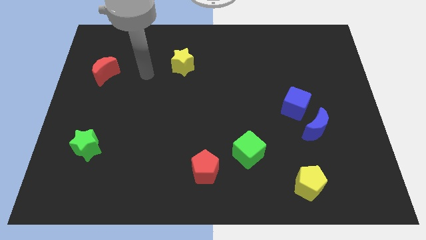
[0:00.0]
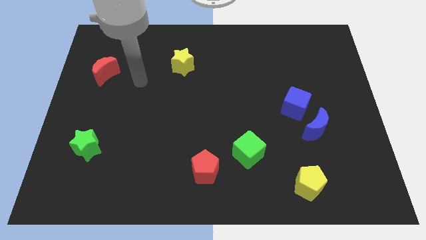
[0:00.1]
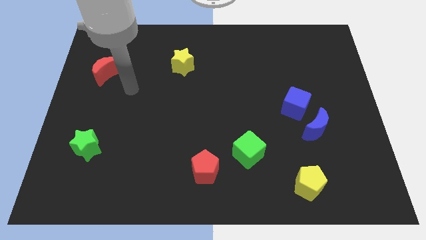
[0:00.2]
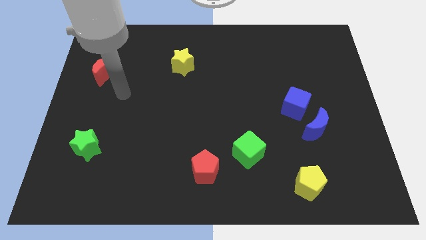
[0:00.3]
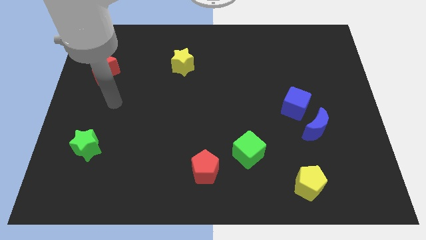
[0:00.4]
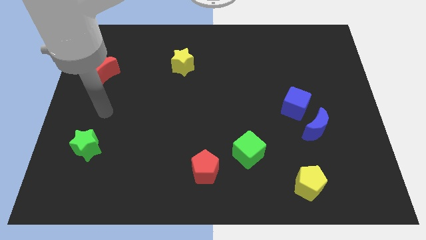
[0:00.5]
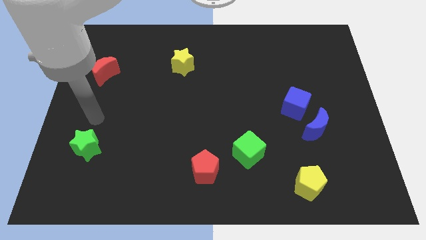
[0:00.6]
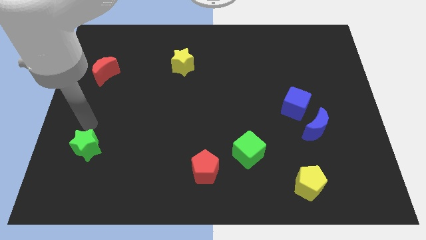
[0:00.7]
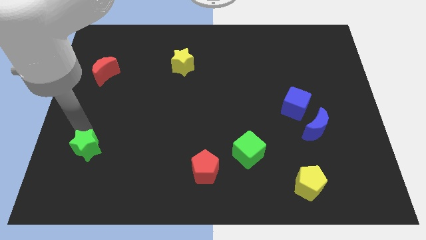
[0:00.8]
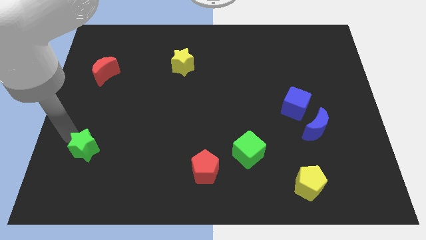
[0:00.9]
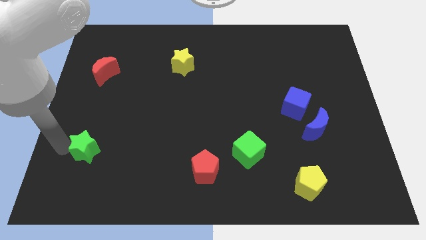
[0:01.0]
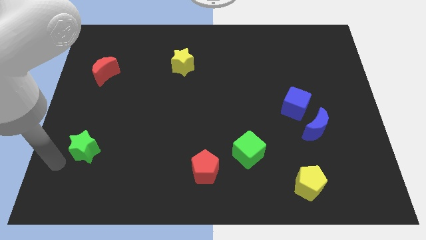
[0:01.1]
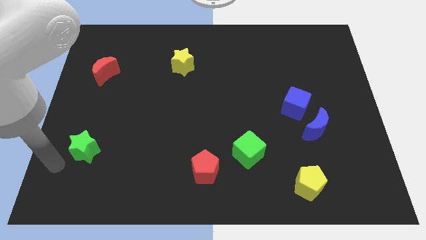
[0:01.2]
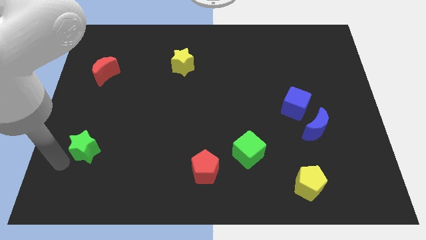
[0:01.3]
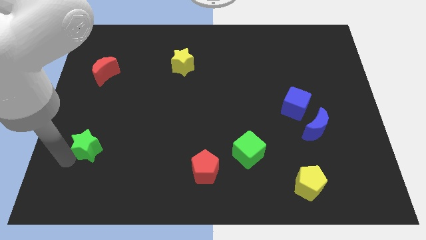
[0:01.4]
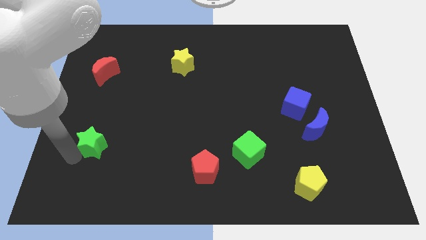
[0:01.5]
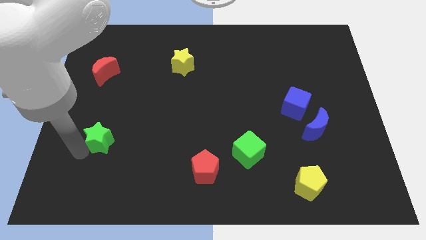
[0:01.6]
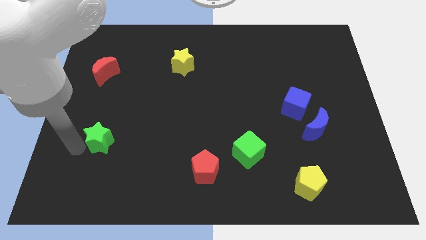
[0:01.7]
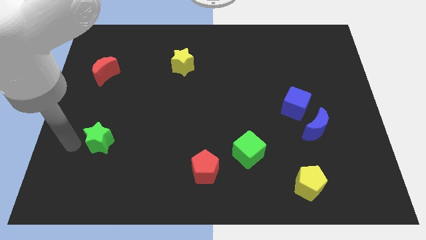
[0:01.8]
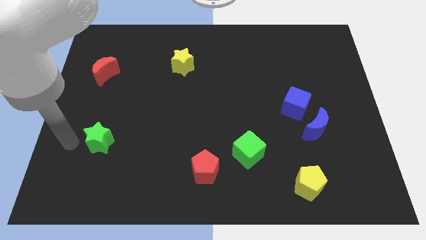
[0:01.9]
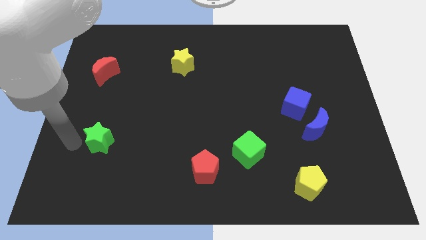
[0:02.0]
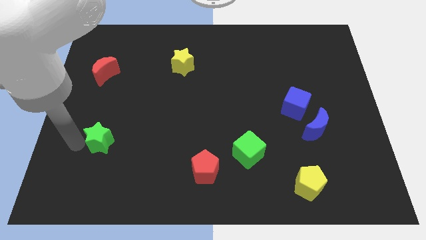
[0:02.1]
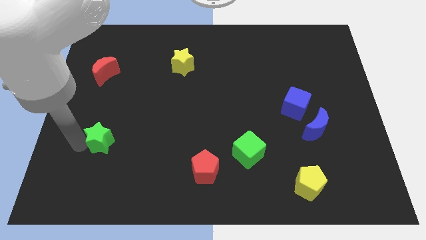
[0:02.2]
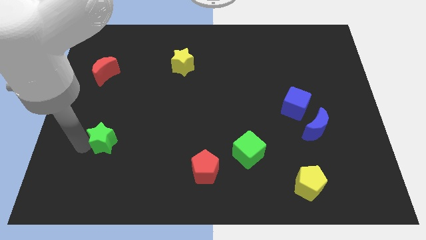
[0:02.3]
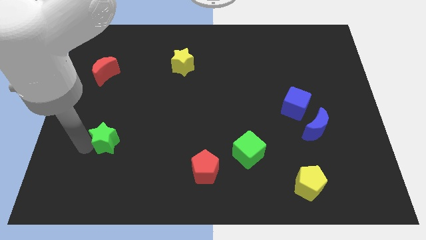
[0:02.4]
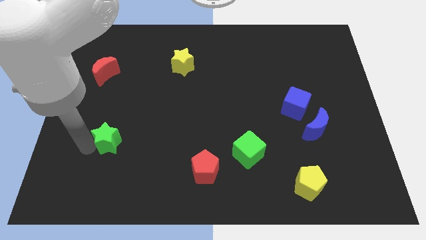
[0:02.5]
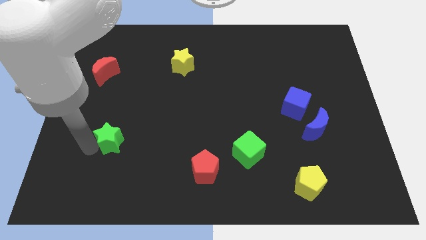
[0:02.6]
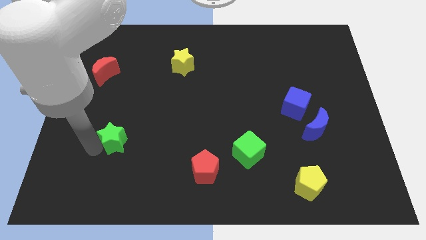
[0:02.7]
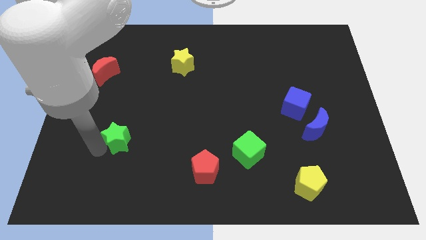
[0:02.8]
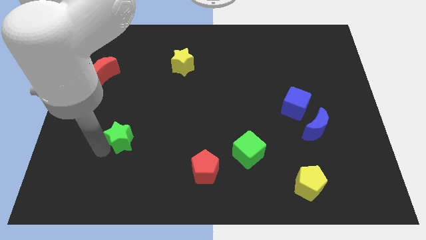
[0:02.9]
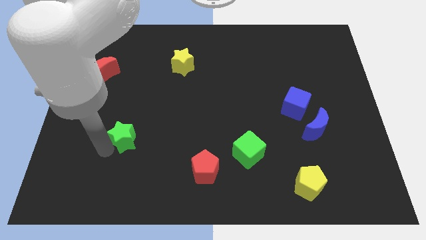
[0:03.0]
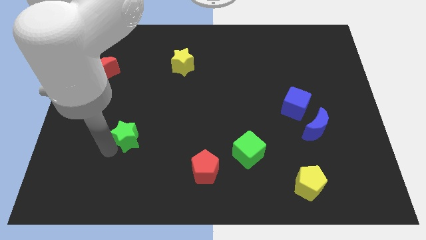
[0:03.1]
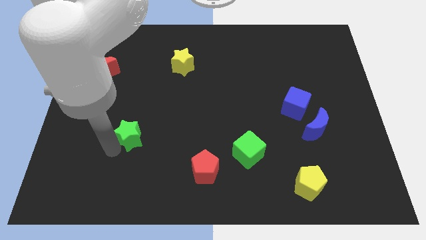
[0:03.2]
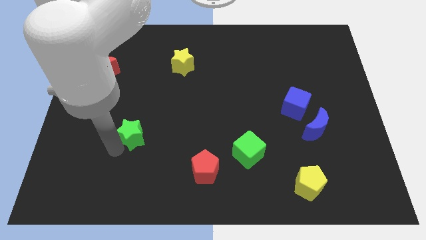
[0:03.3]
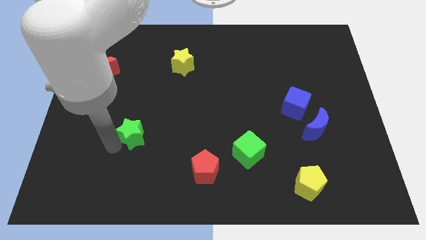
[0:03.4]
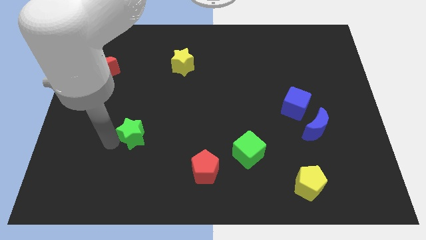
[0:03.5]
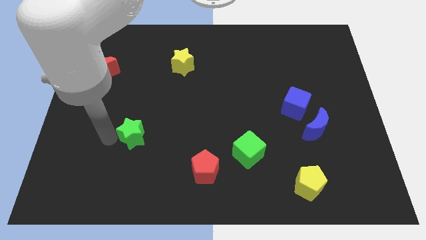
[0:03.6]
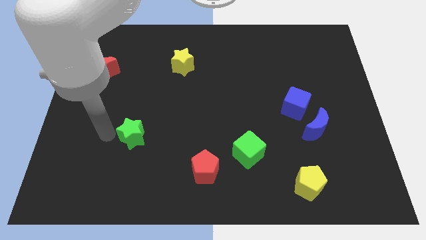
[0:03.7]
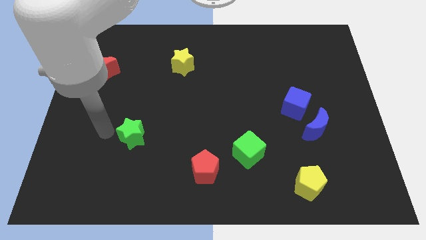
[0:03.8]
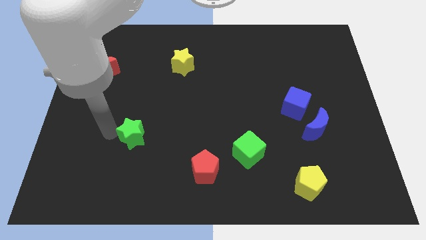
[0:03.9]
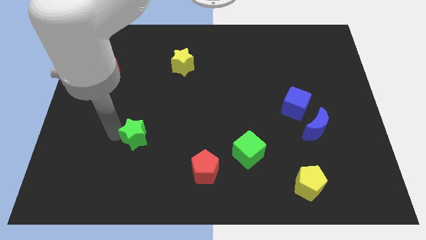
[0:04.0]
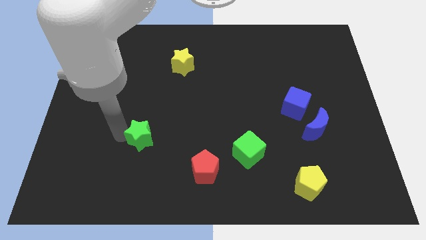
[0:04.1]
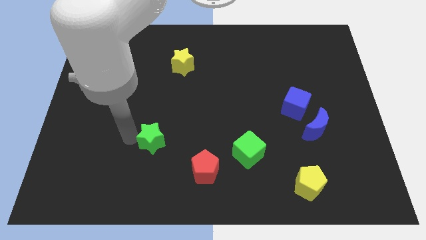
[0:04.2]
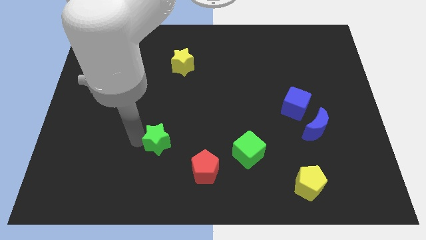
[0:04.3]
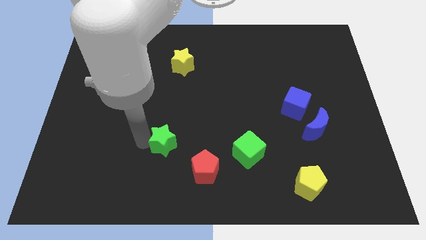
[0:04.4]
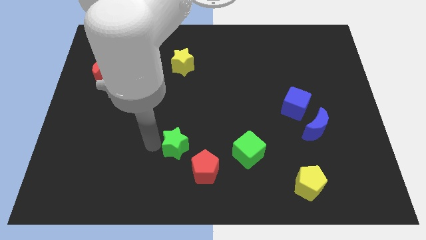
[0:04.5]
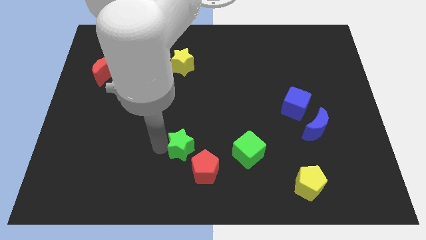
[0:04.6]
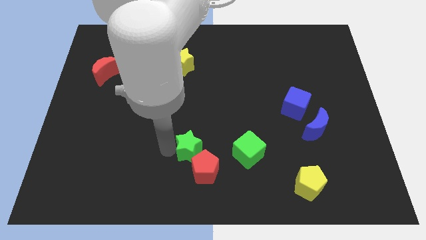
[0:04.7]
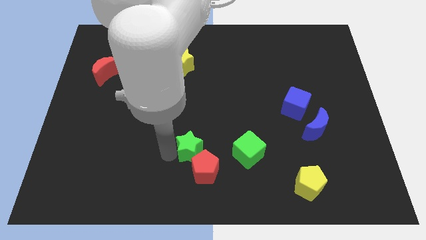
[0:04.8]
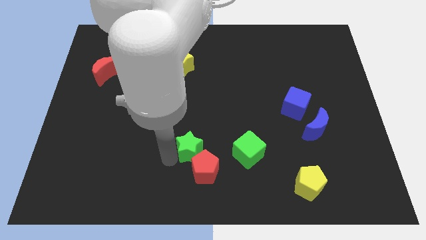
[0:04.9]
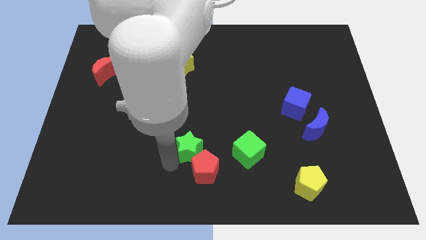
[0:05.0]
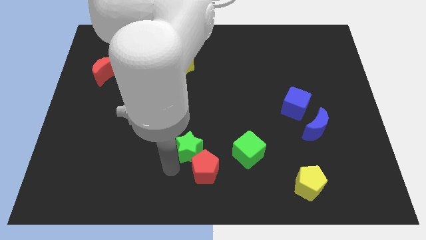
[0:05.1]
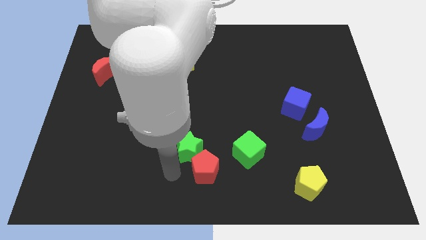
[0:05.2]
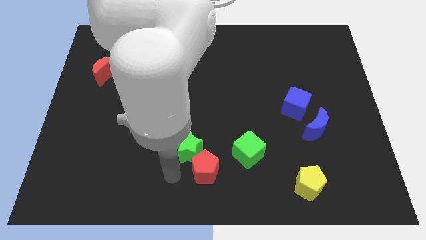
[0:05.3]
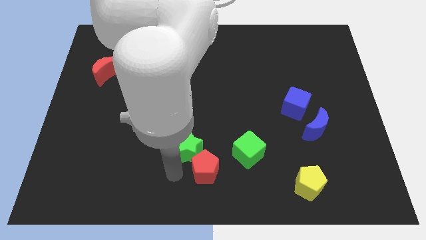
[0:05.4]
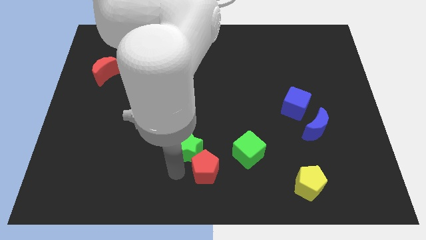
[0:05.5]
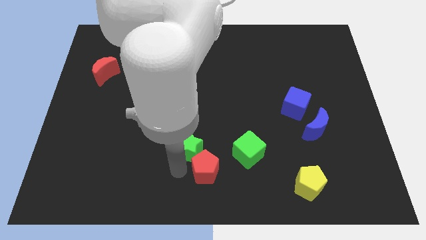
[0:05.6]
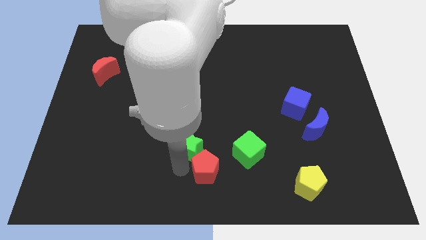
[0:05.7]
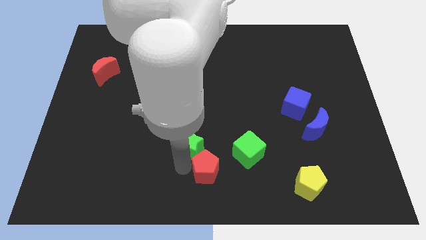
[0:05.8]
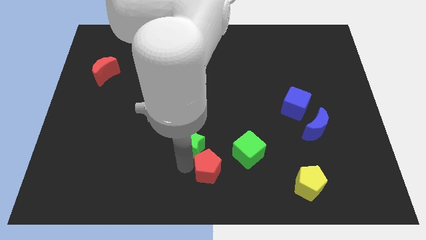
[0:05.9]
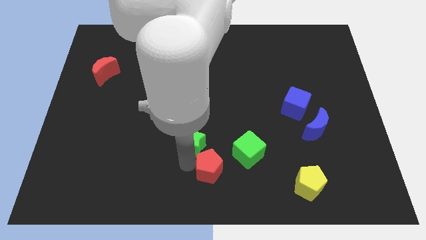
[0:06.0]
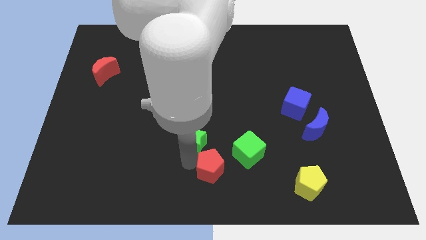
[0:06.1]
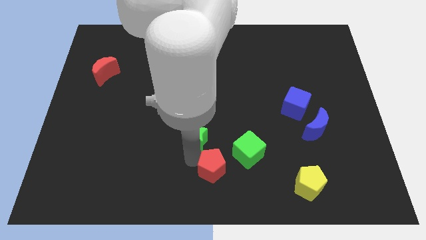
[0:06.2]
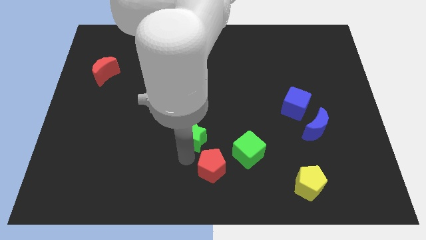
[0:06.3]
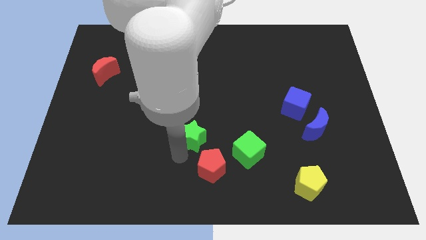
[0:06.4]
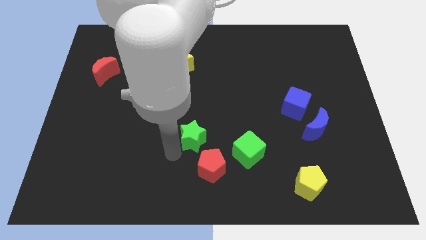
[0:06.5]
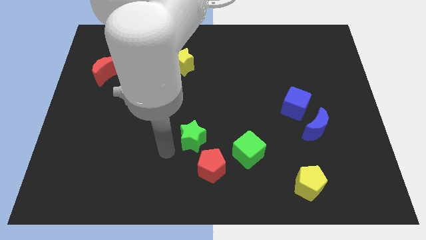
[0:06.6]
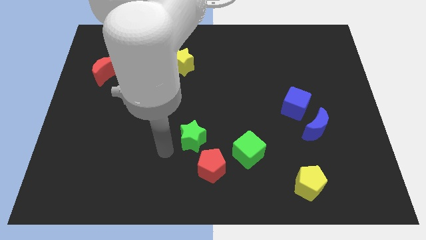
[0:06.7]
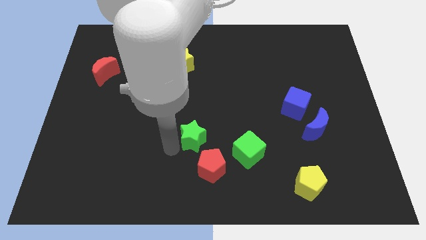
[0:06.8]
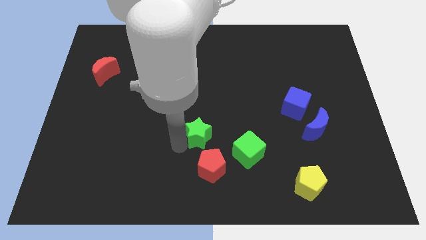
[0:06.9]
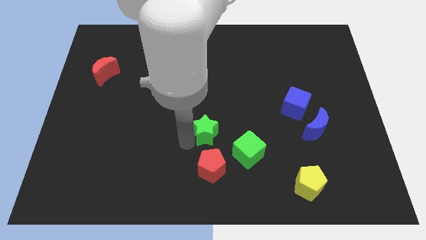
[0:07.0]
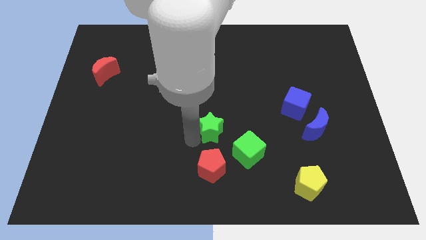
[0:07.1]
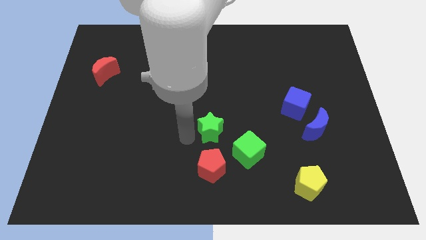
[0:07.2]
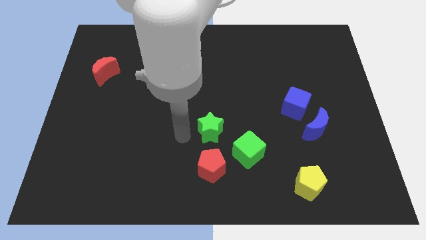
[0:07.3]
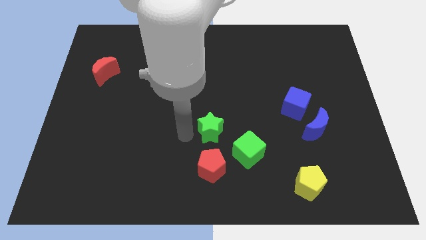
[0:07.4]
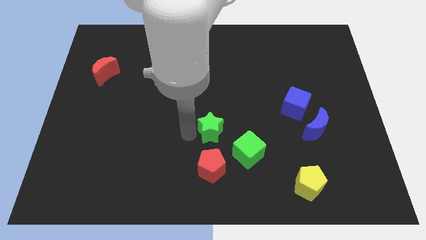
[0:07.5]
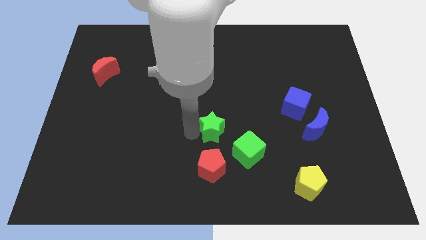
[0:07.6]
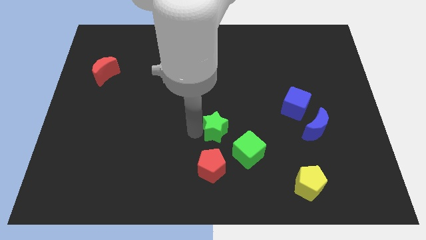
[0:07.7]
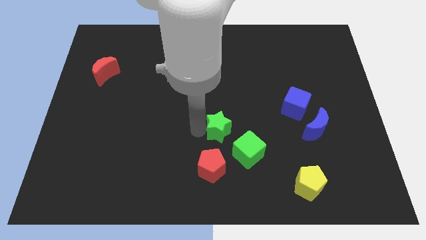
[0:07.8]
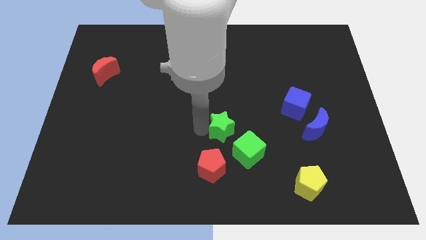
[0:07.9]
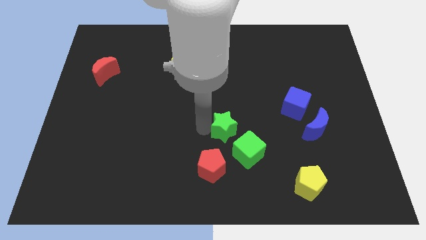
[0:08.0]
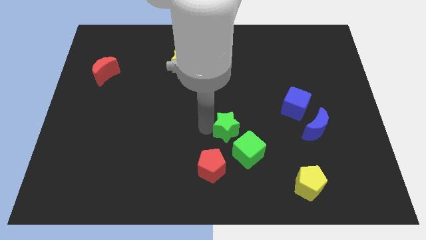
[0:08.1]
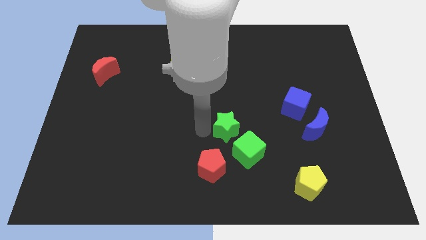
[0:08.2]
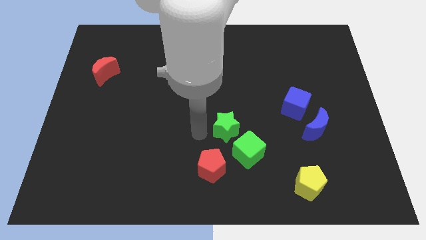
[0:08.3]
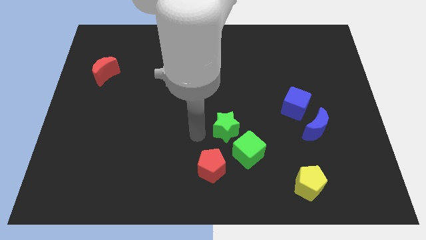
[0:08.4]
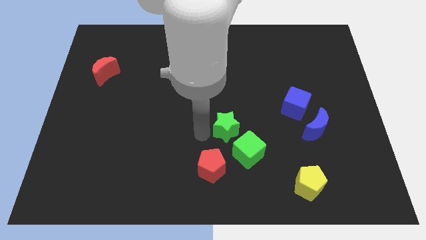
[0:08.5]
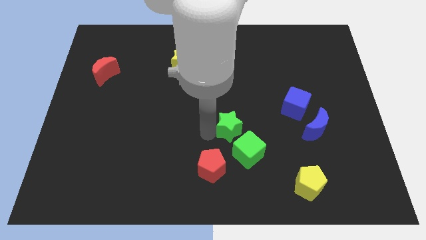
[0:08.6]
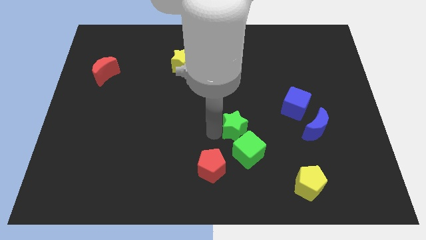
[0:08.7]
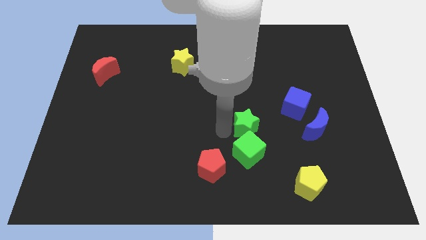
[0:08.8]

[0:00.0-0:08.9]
slide the green star to the left side of the blue moon
